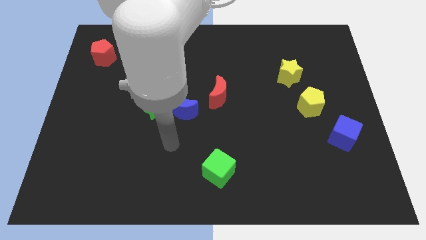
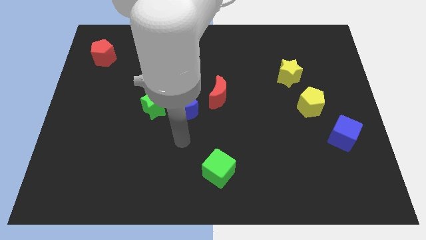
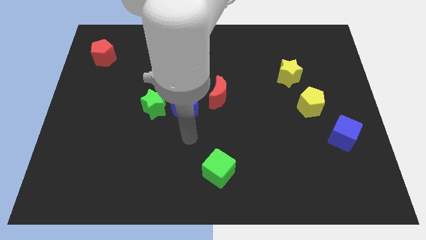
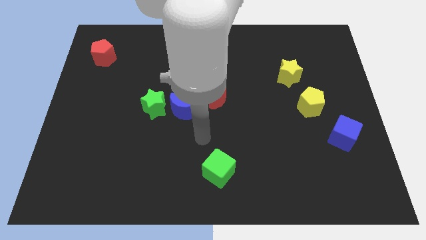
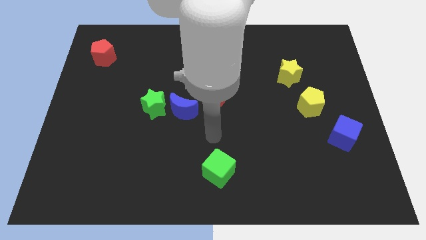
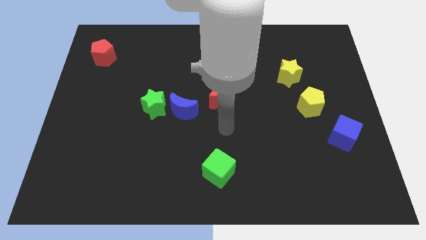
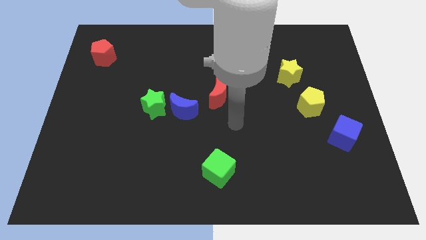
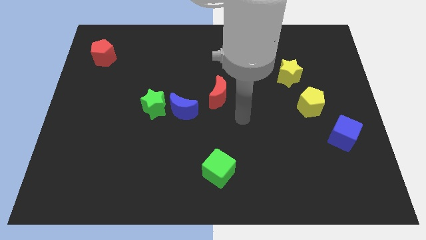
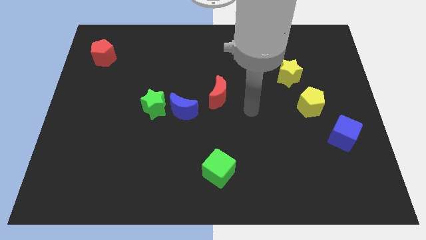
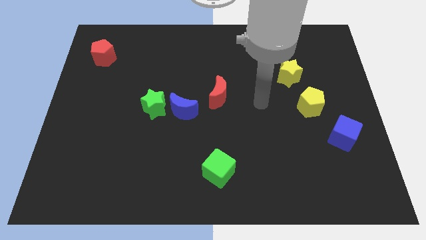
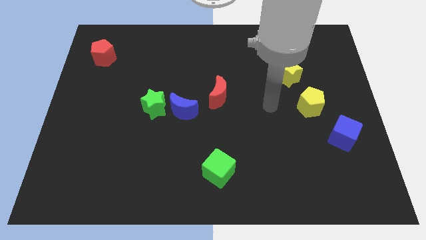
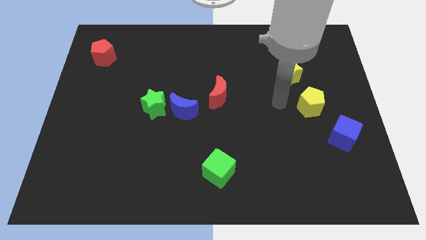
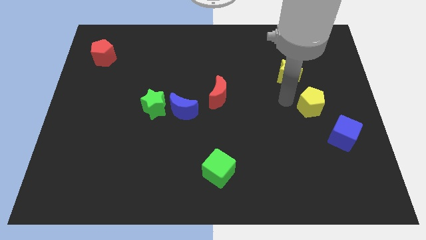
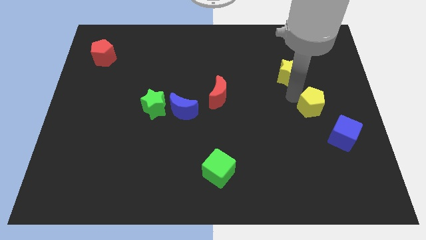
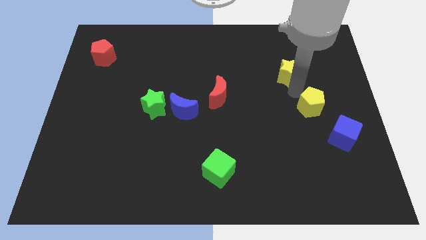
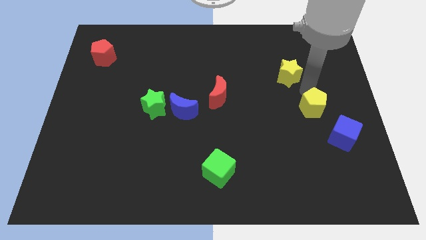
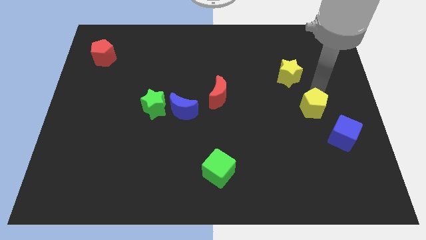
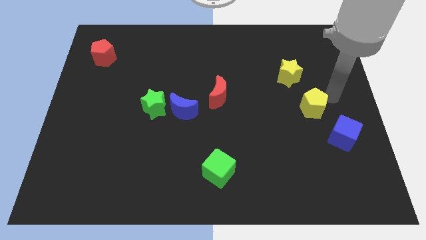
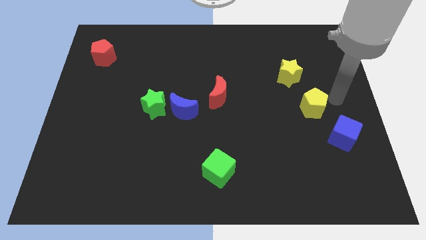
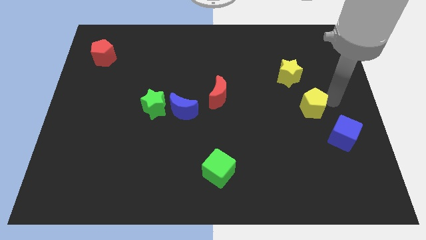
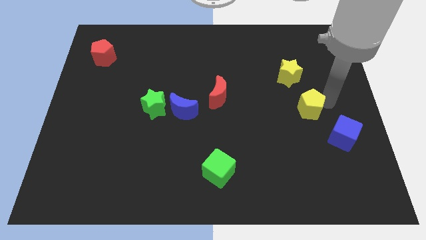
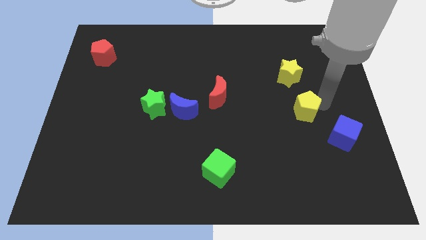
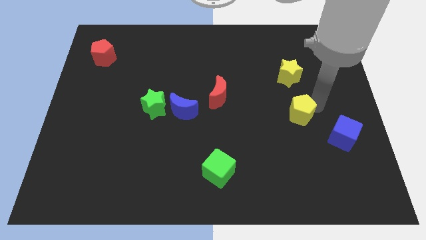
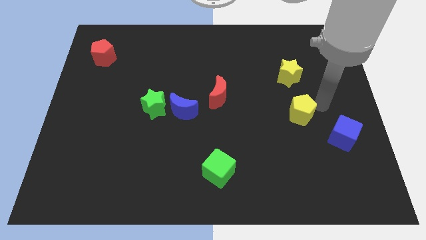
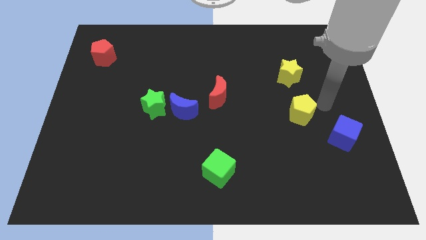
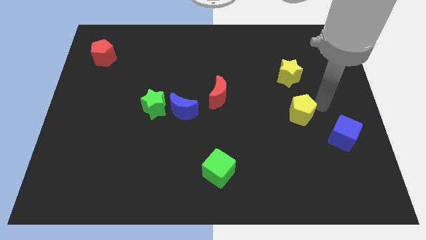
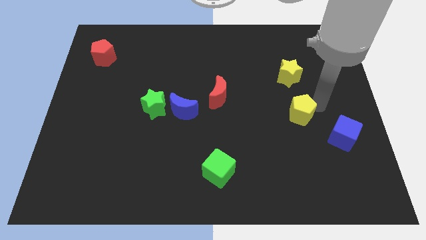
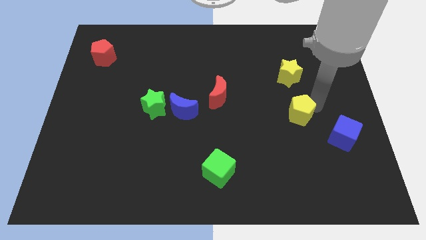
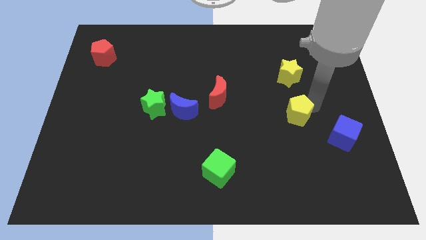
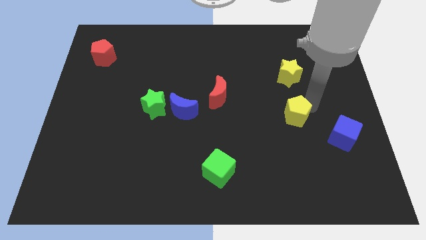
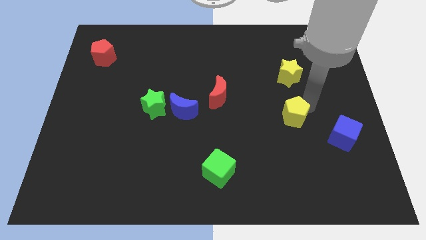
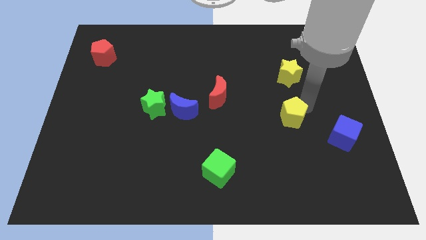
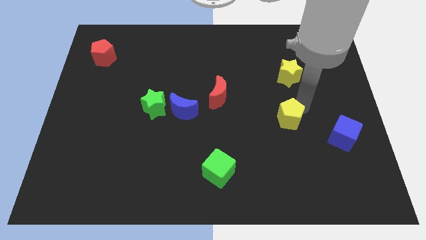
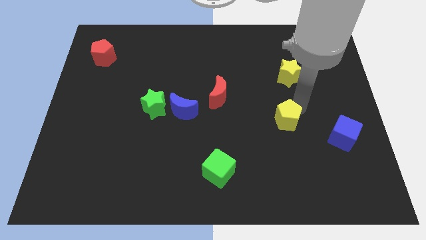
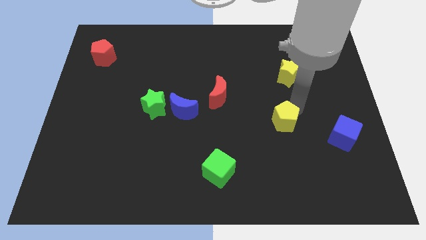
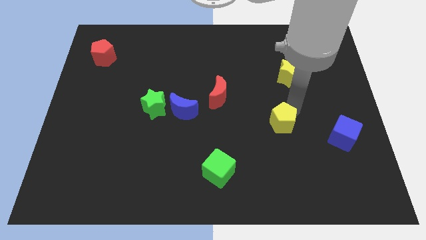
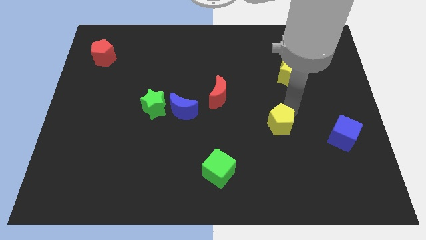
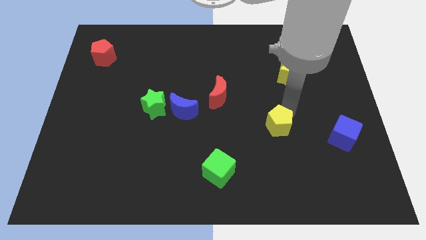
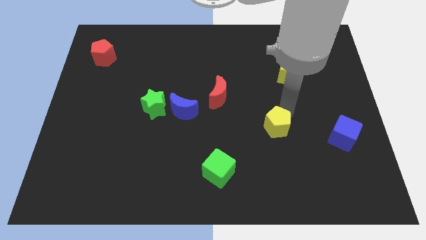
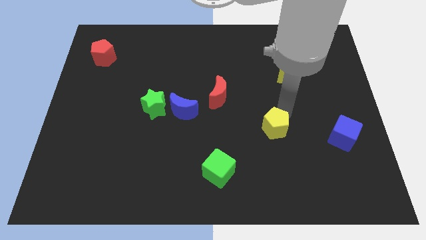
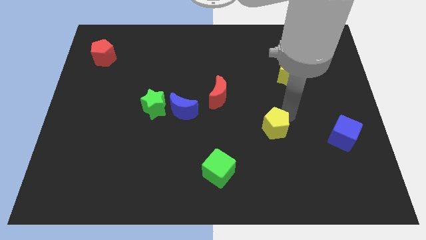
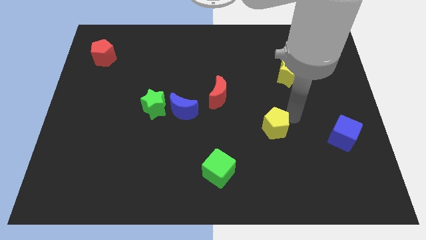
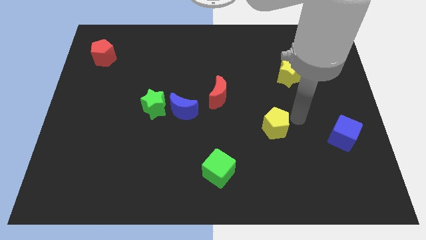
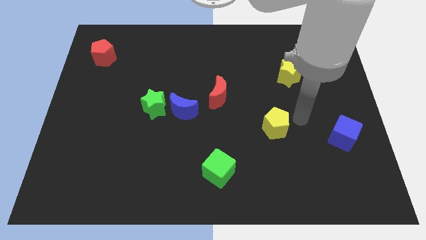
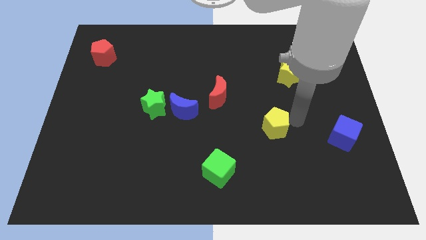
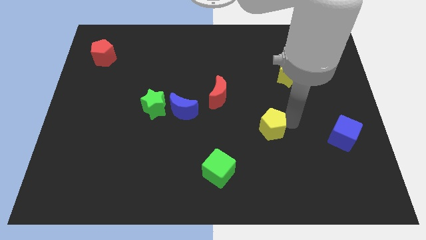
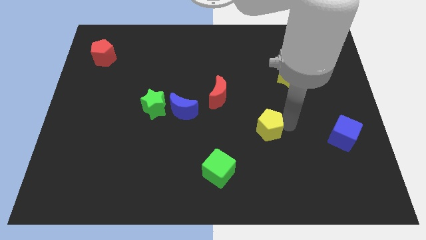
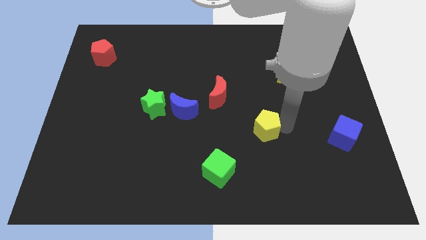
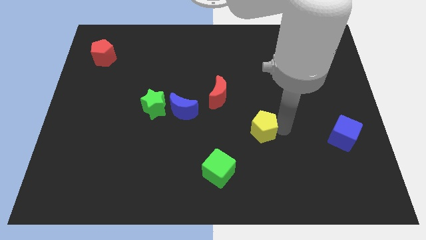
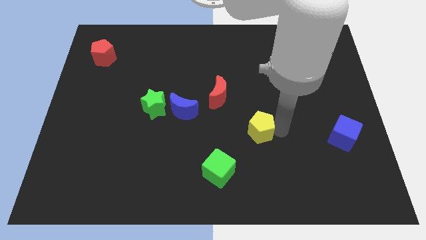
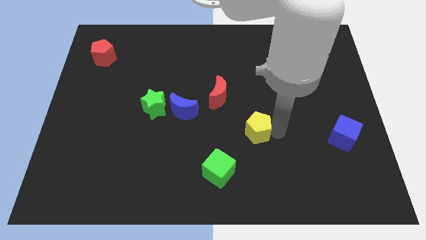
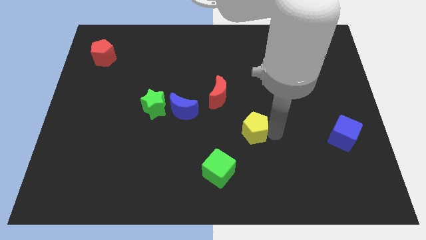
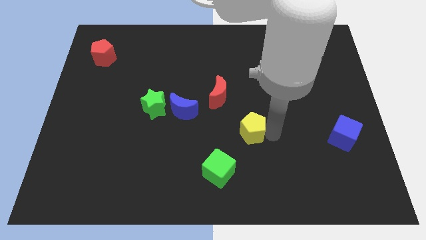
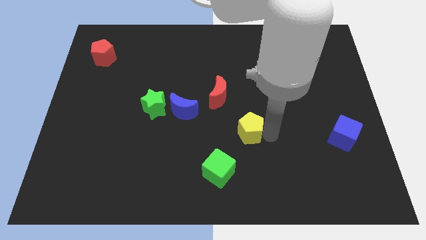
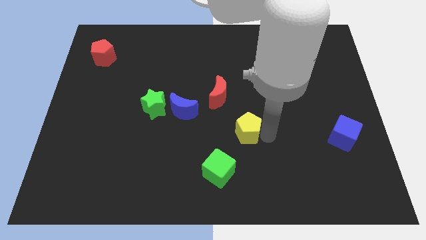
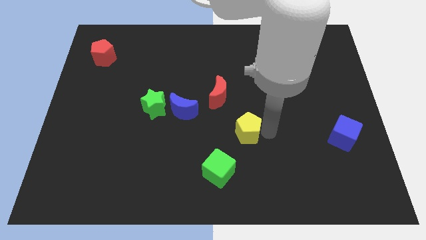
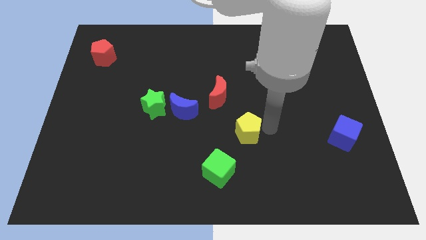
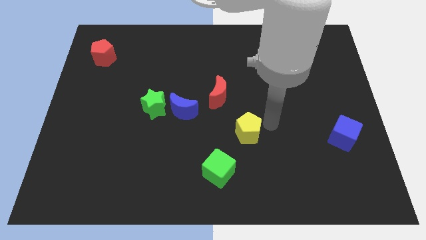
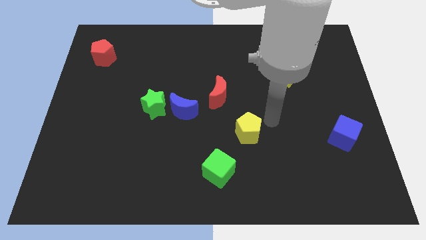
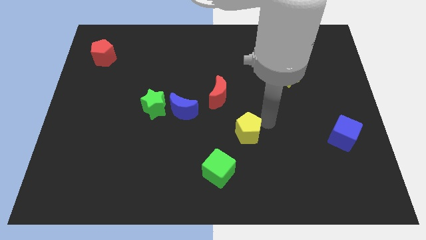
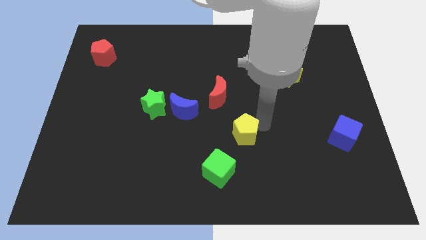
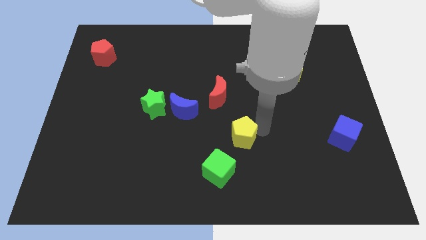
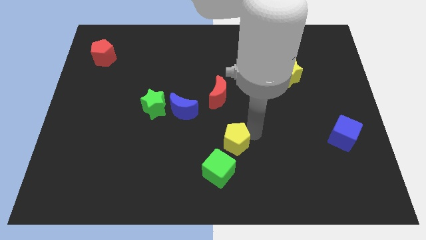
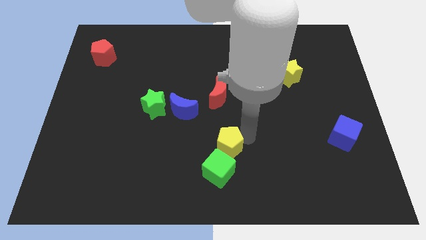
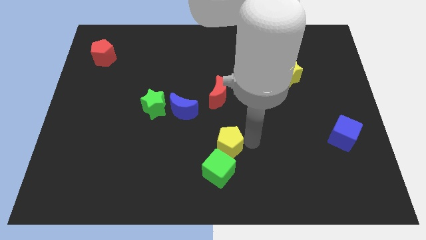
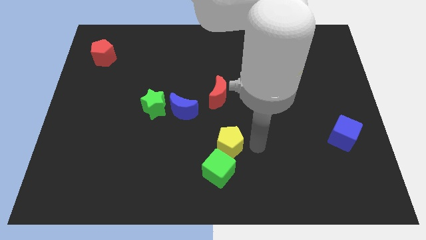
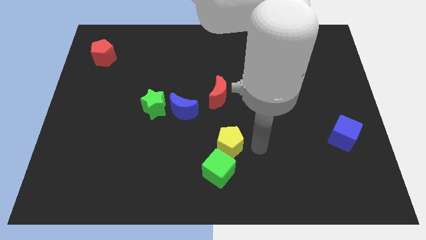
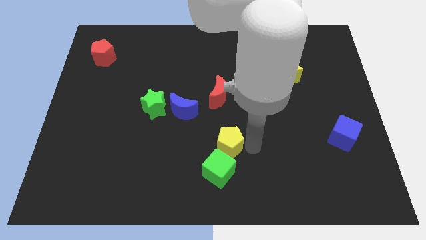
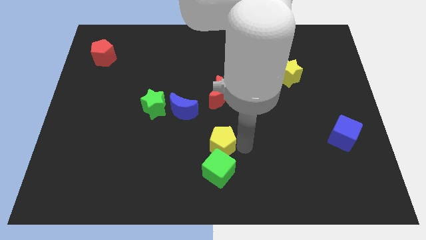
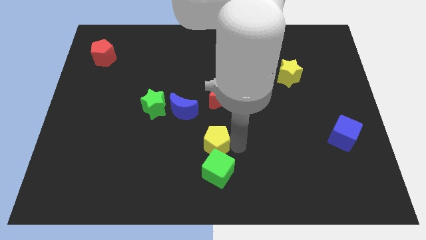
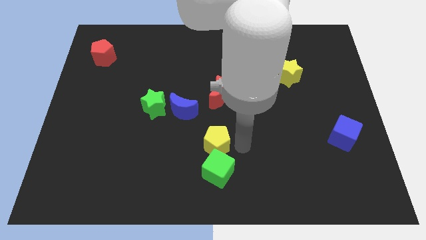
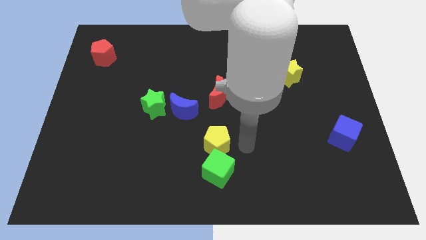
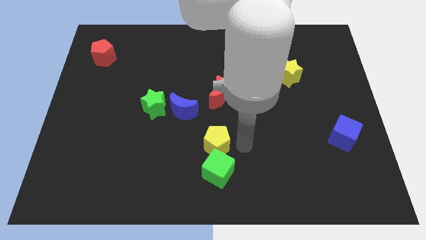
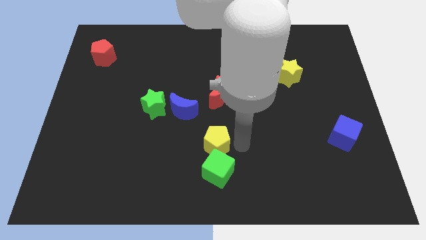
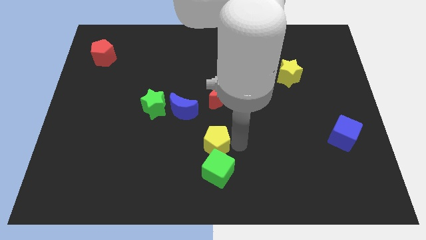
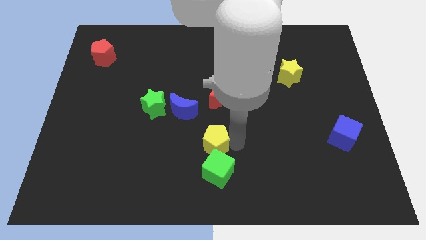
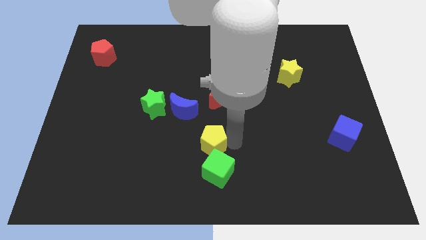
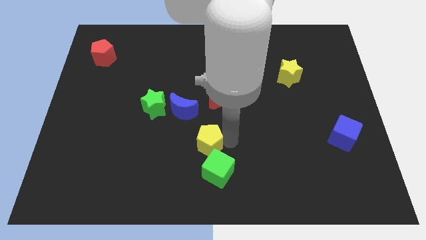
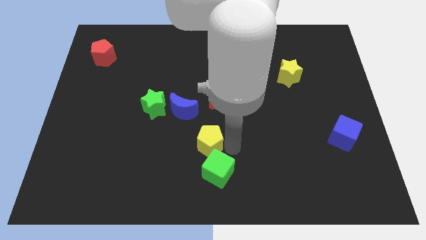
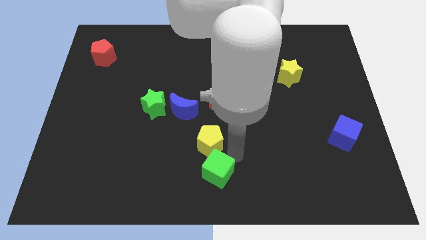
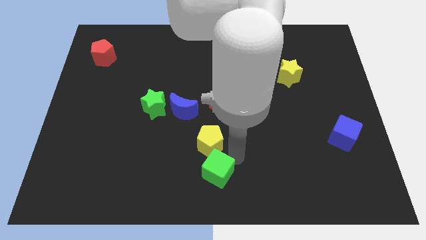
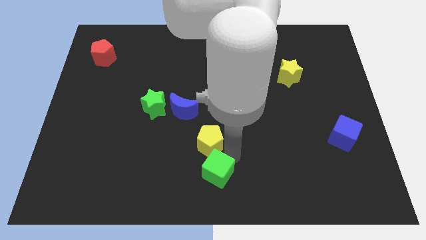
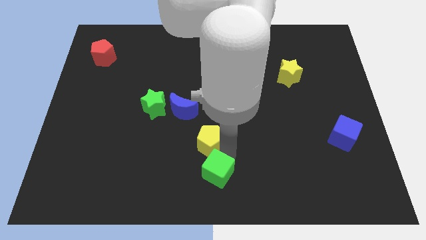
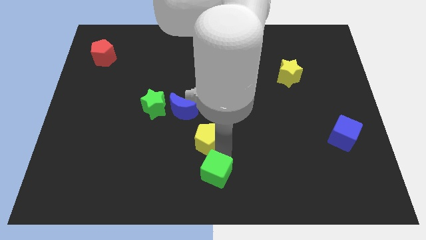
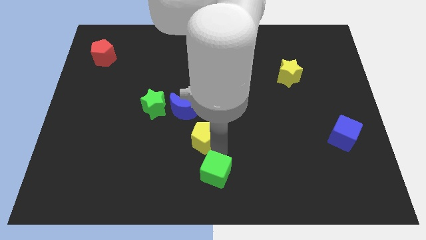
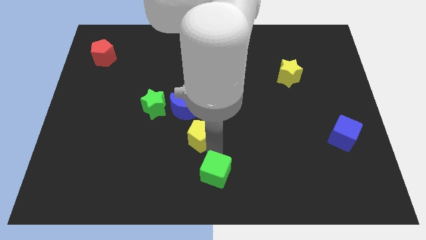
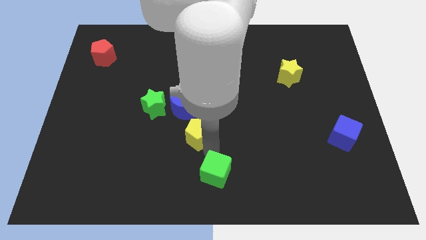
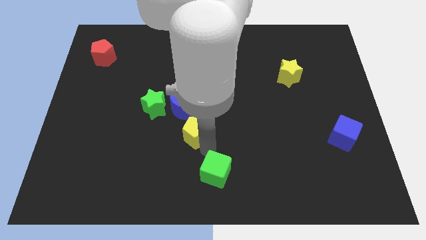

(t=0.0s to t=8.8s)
put the yellow pentagon to the bottom right of the green star
